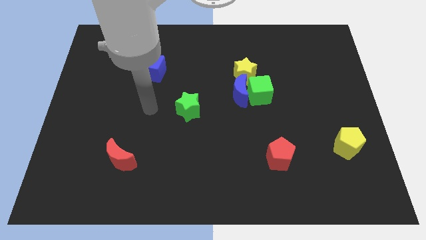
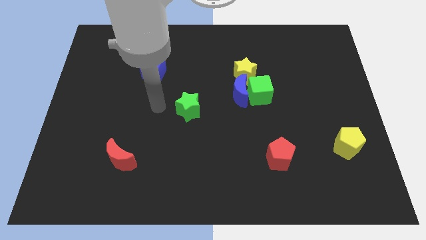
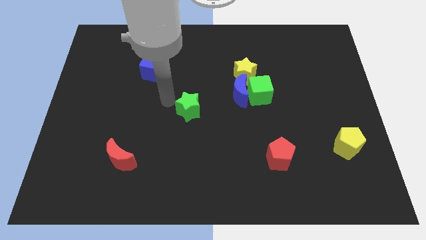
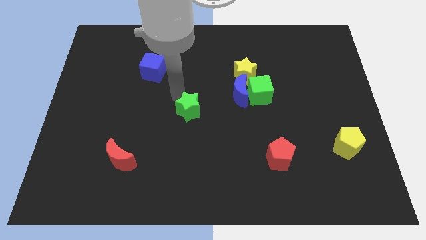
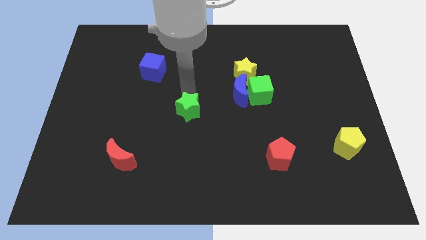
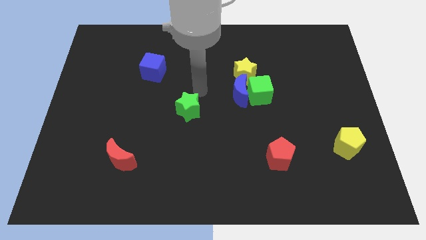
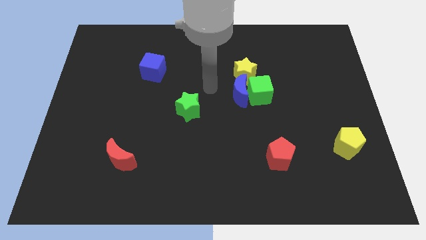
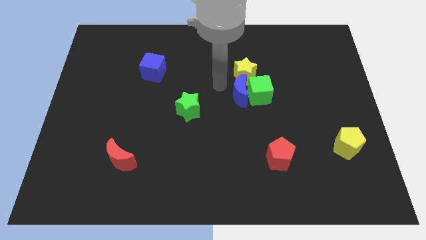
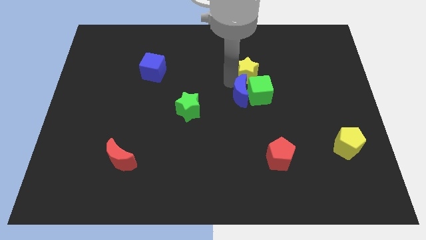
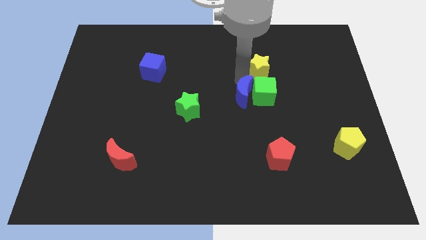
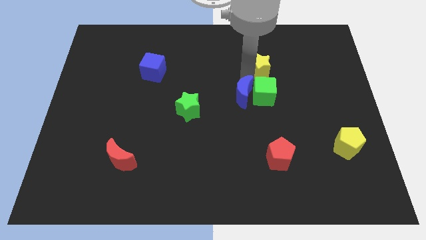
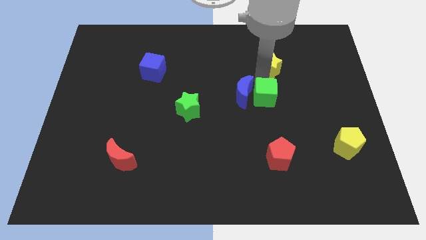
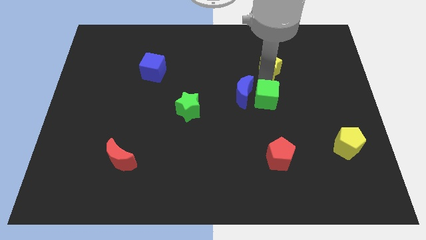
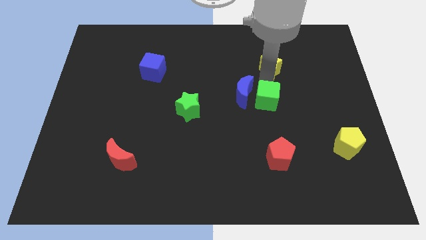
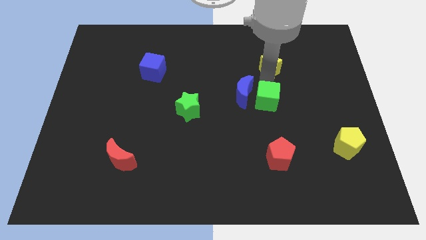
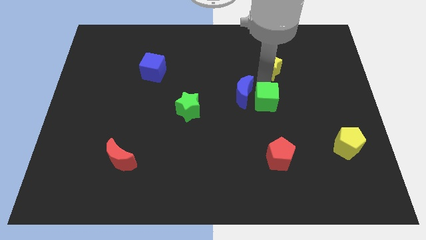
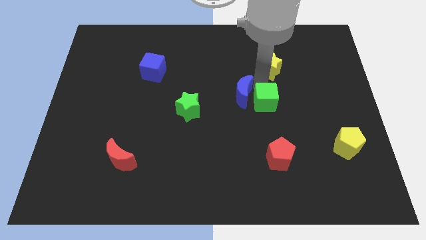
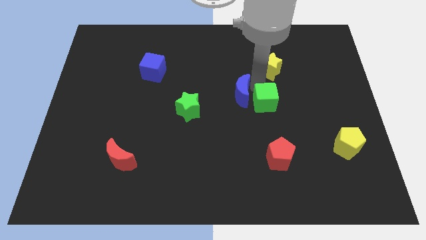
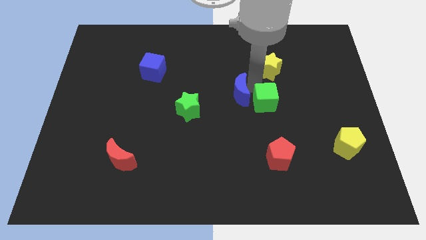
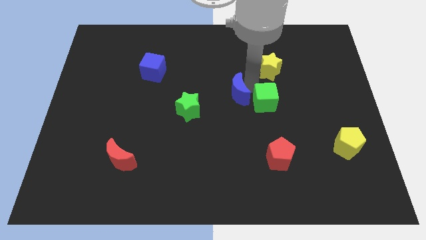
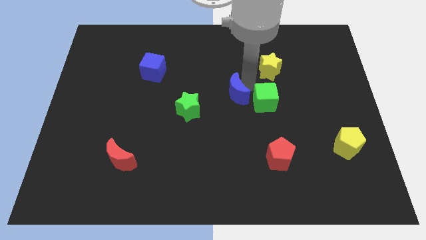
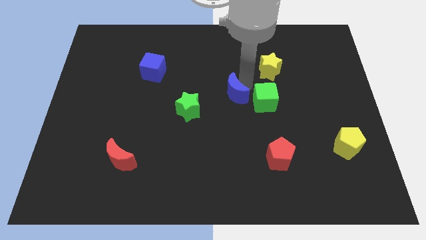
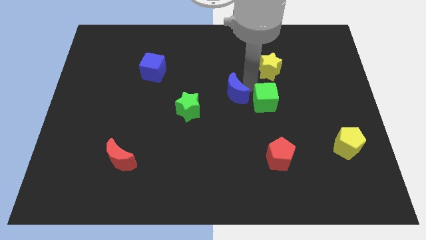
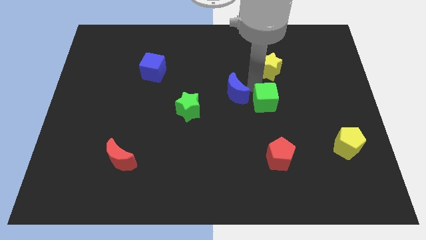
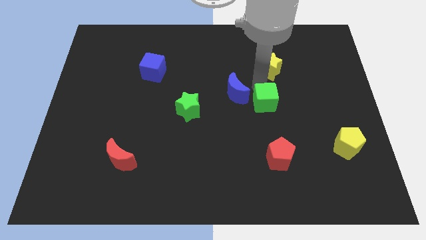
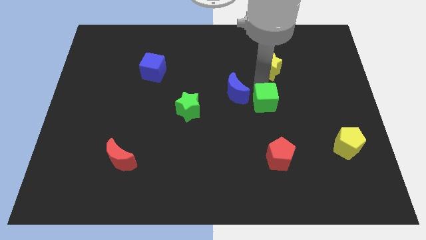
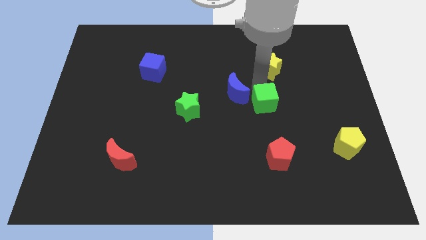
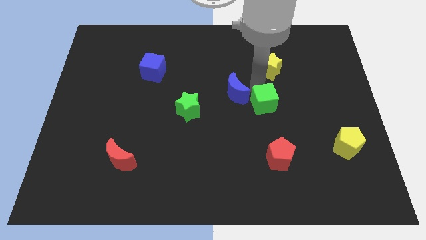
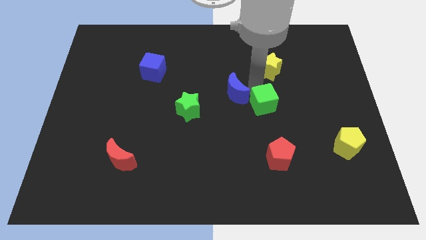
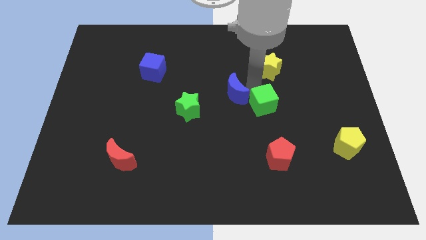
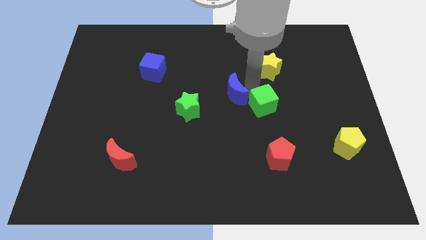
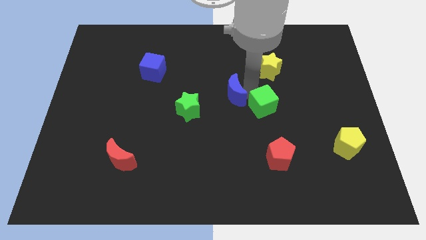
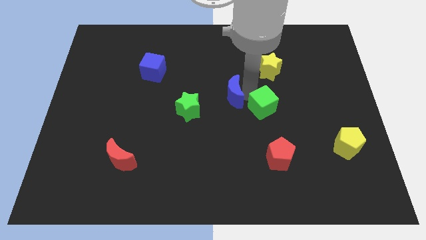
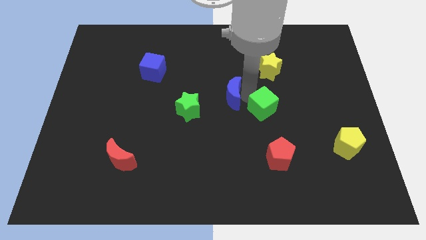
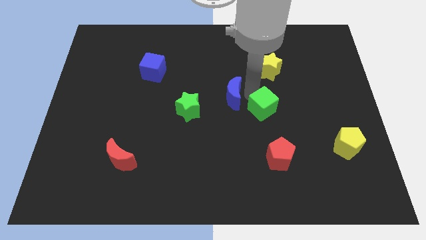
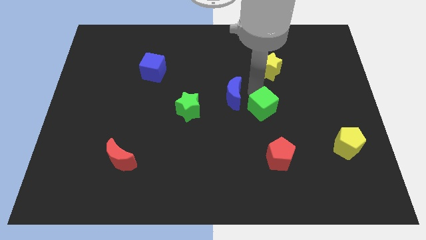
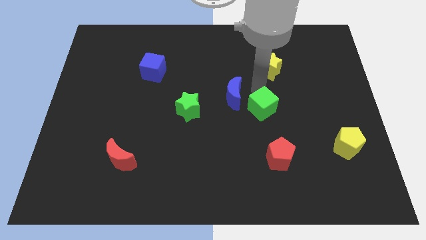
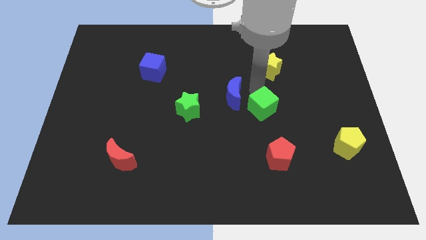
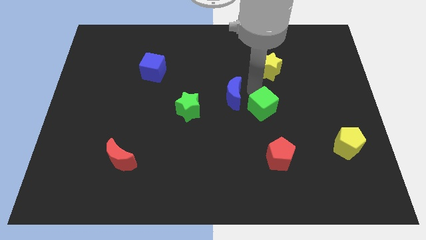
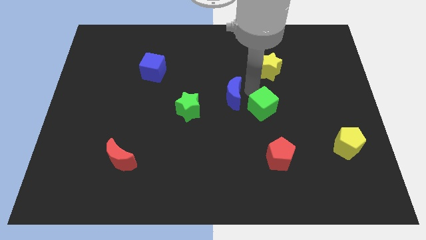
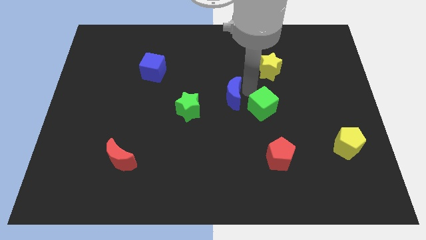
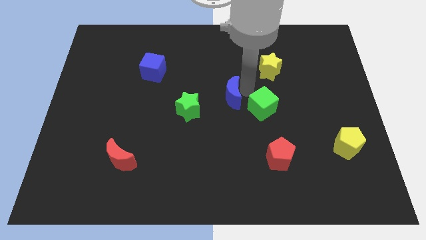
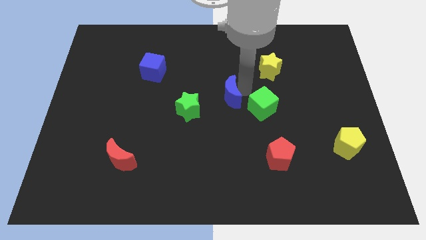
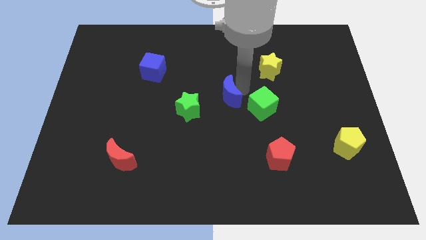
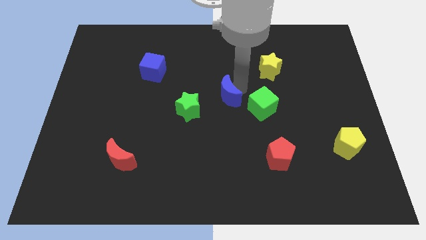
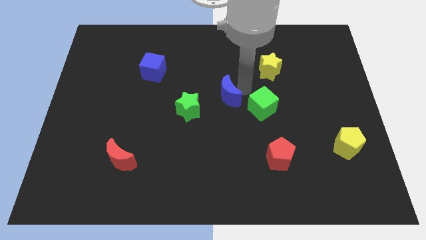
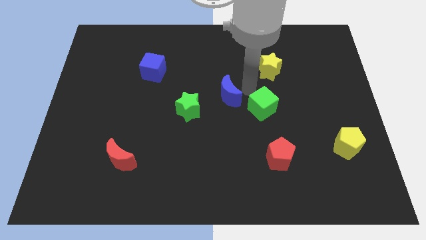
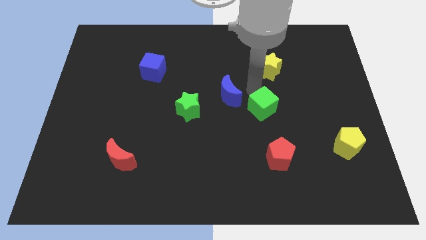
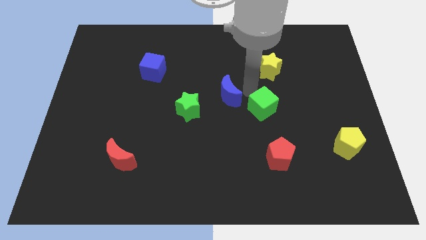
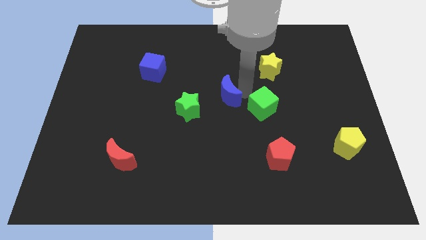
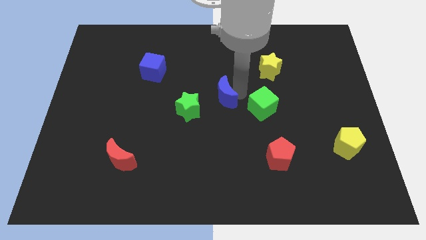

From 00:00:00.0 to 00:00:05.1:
pull the blue moon apart from the green cube and yellow star

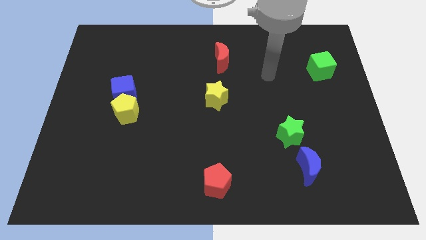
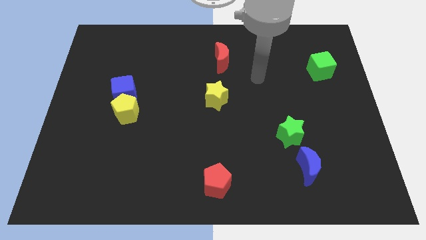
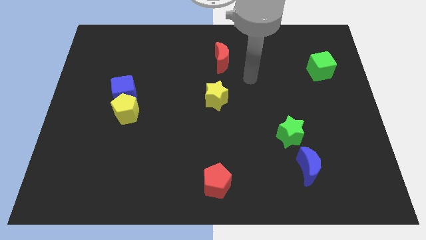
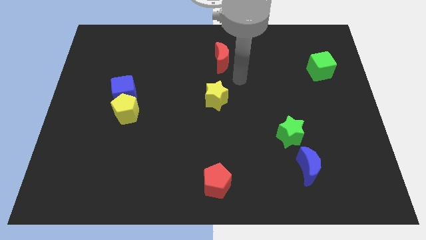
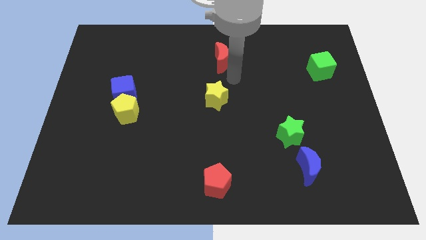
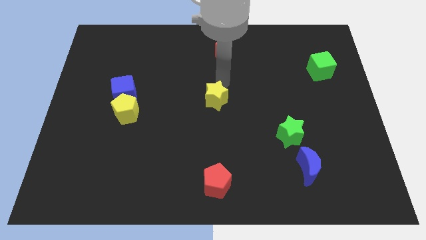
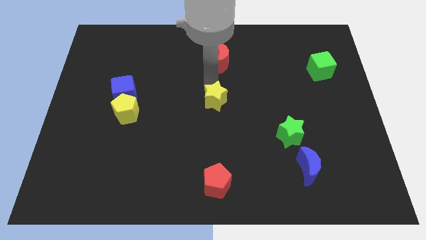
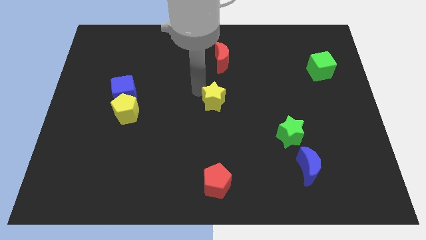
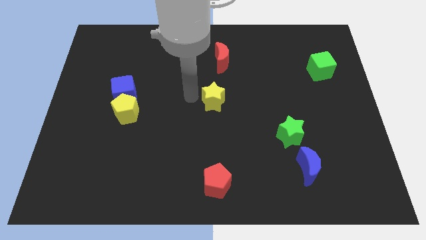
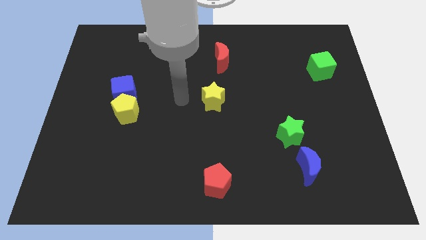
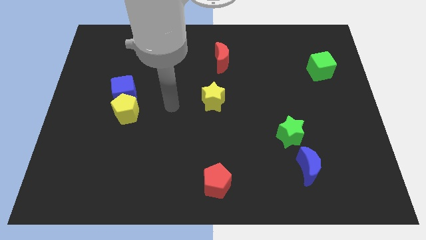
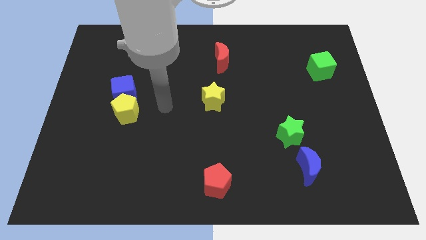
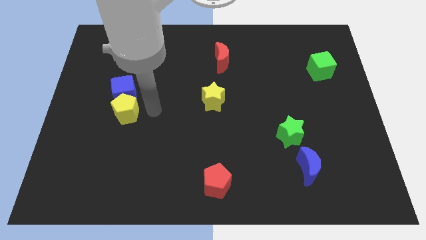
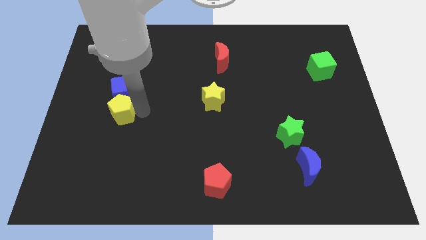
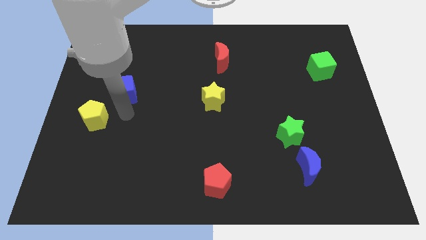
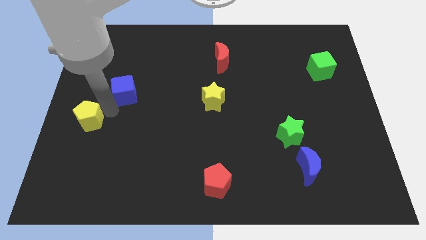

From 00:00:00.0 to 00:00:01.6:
pull the blue cube apart from the yellow pentagon

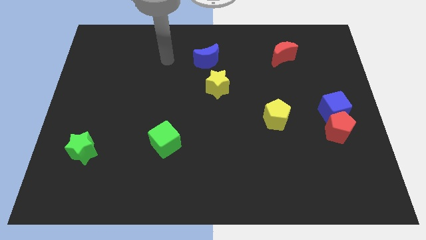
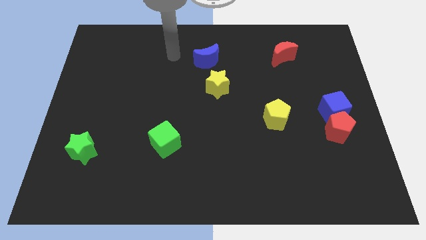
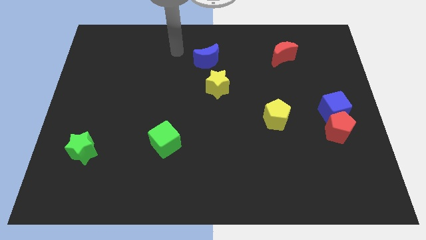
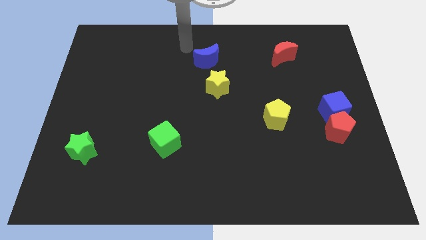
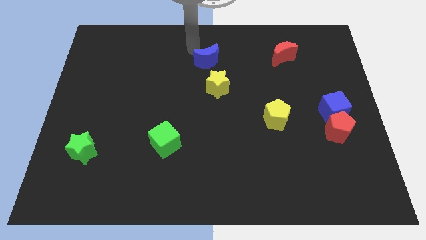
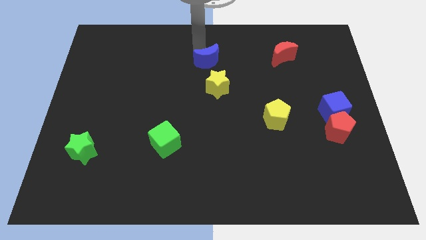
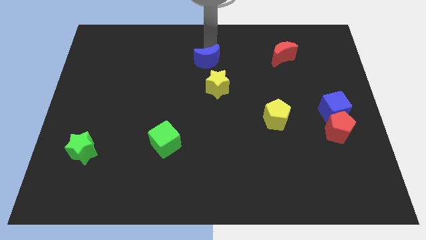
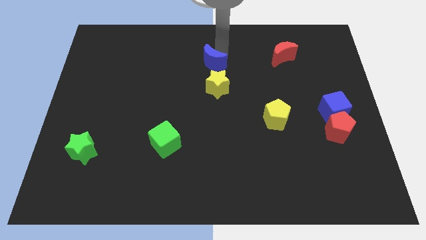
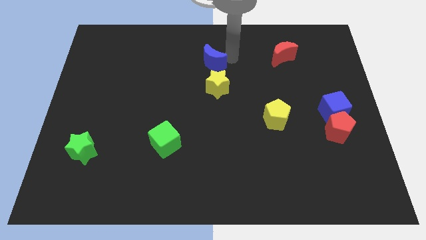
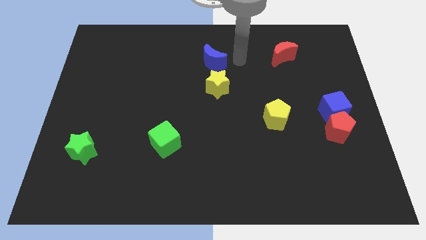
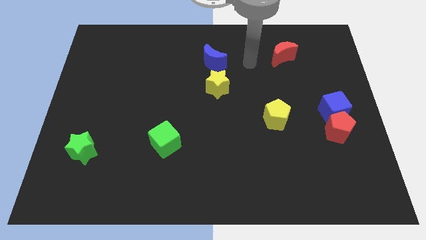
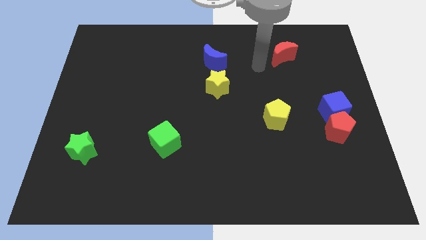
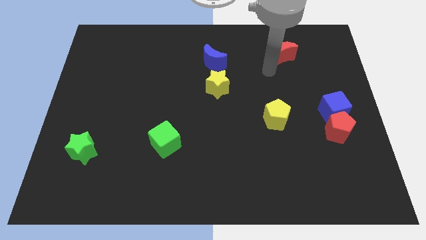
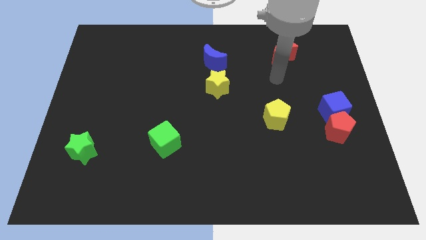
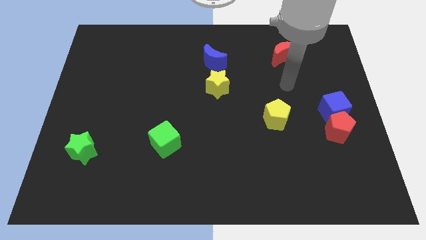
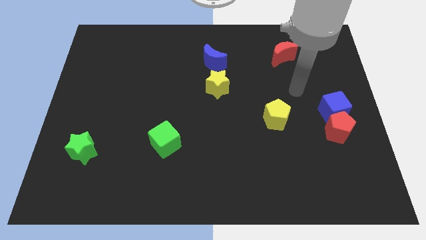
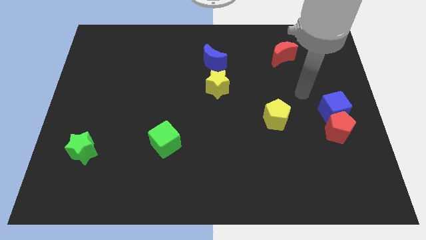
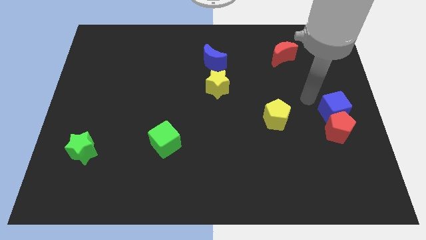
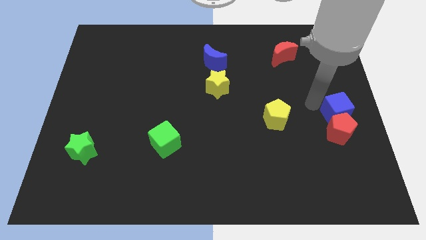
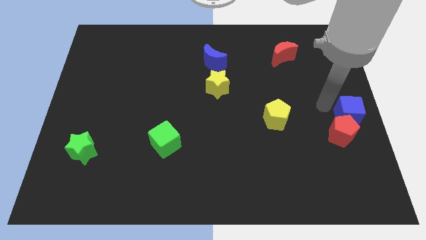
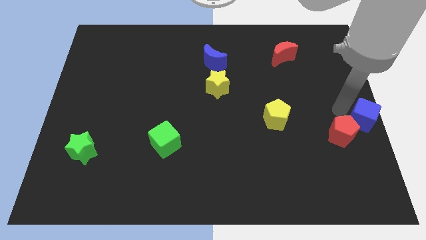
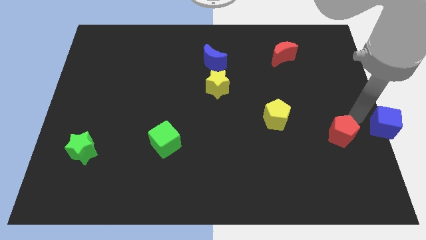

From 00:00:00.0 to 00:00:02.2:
pull the red pentagon apart from the blue cube

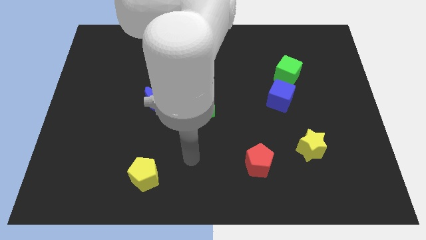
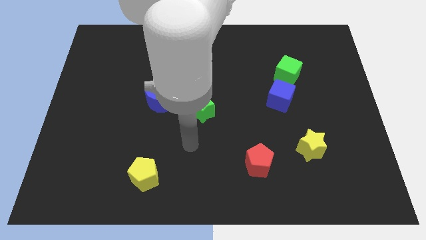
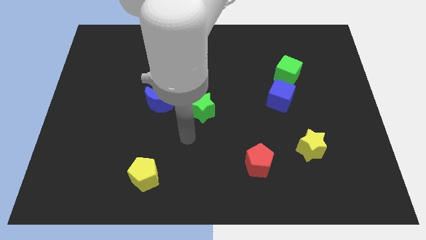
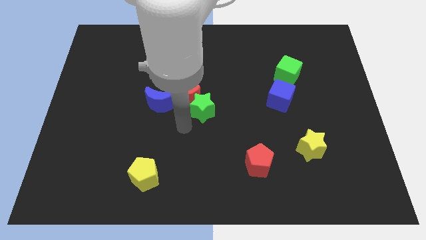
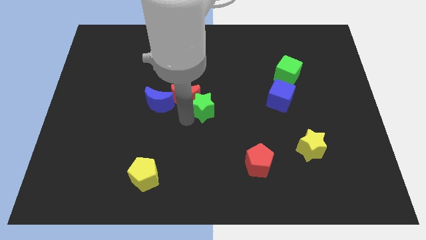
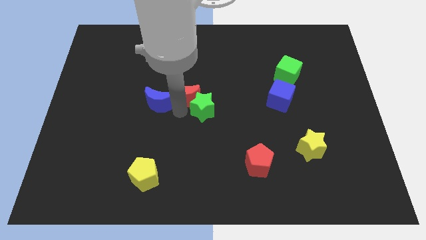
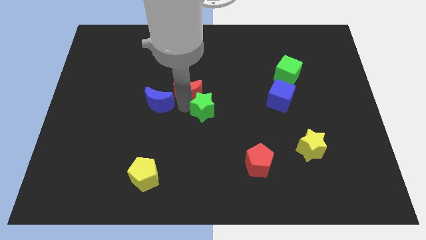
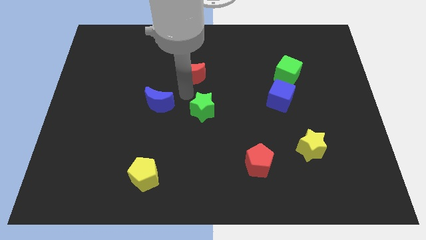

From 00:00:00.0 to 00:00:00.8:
move the green star away from the red moon
